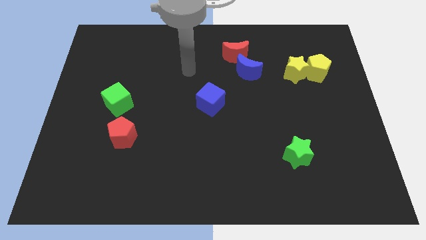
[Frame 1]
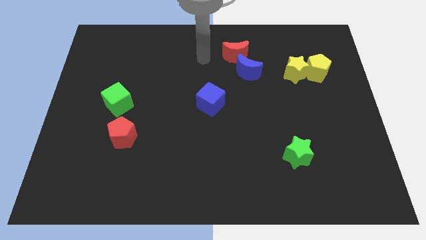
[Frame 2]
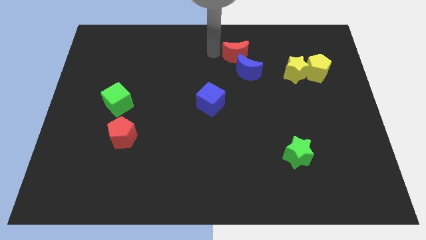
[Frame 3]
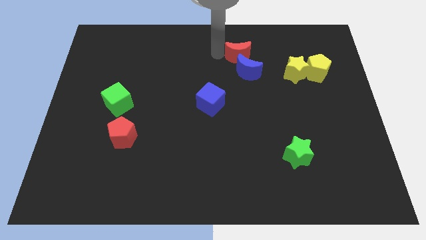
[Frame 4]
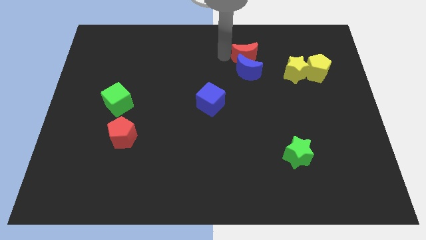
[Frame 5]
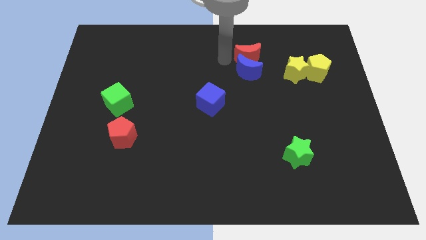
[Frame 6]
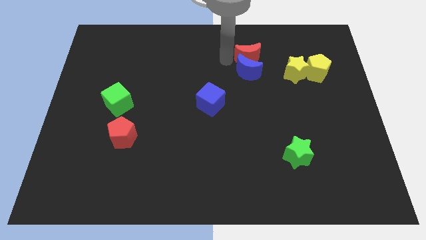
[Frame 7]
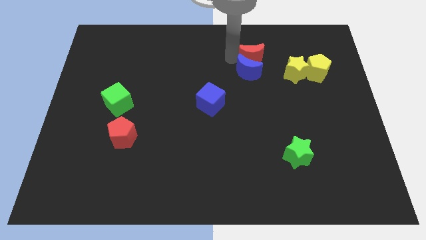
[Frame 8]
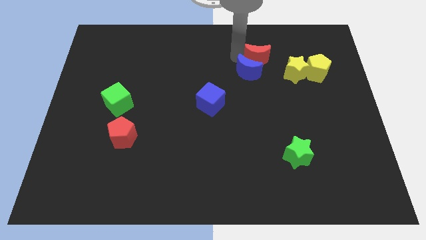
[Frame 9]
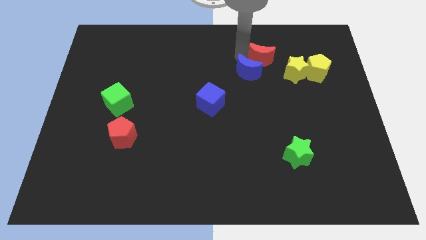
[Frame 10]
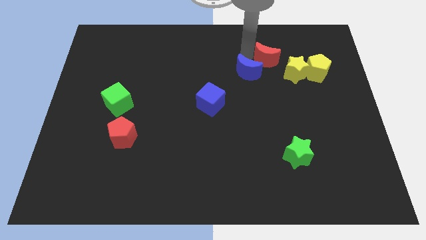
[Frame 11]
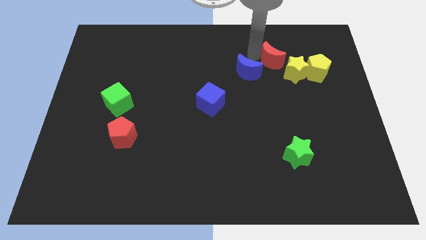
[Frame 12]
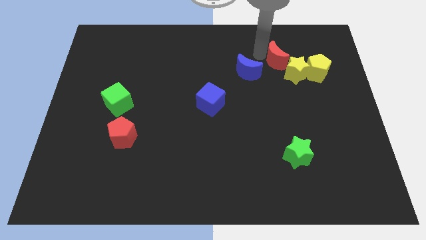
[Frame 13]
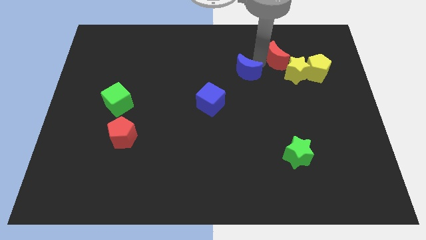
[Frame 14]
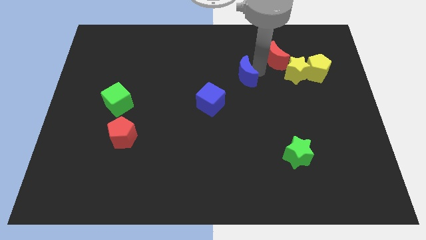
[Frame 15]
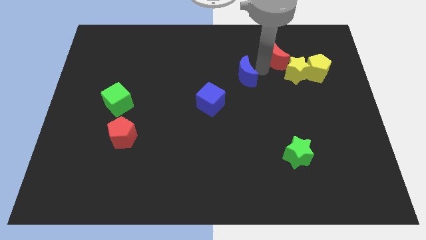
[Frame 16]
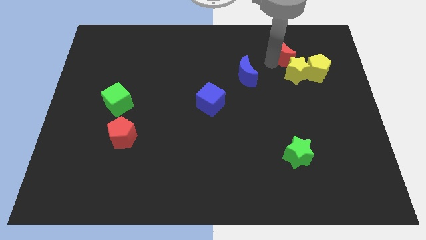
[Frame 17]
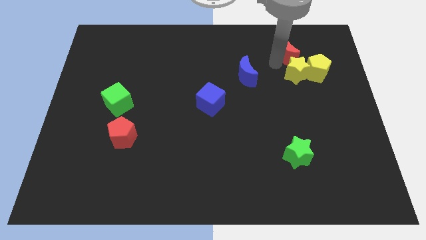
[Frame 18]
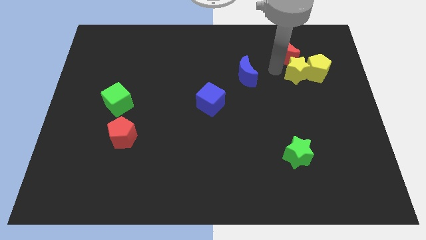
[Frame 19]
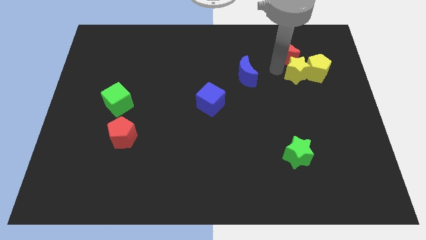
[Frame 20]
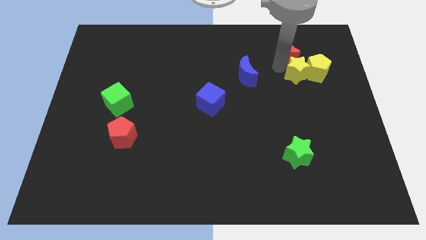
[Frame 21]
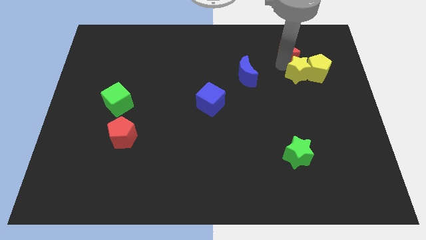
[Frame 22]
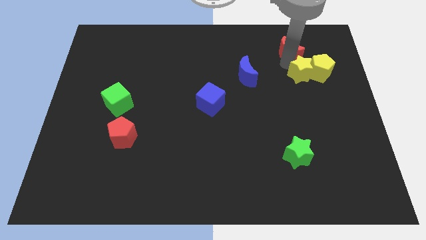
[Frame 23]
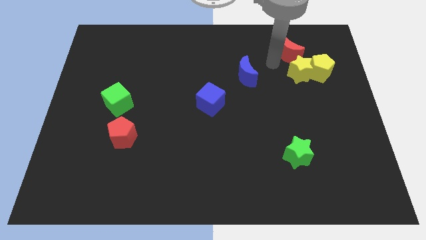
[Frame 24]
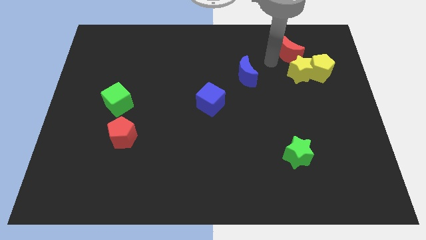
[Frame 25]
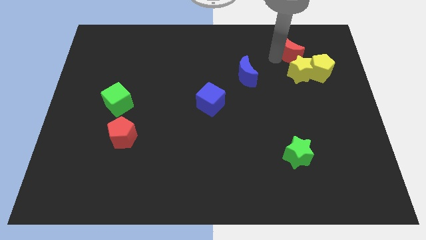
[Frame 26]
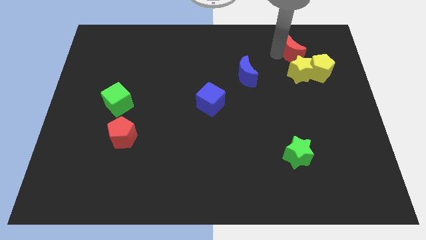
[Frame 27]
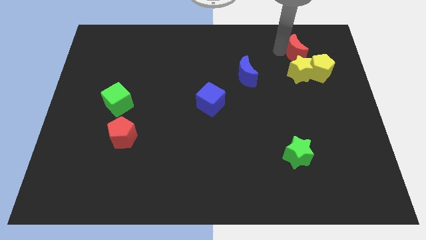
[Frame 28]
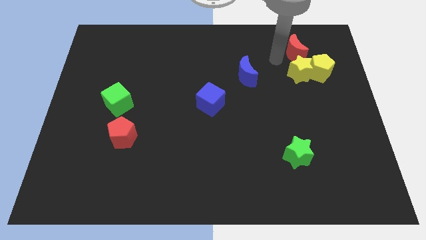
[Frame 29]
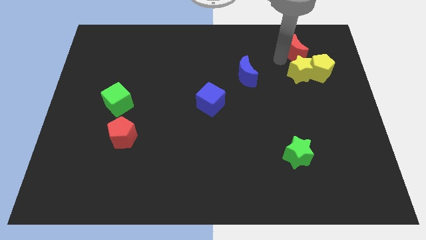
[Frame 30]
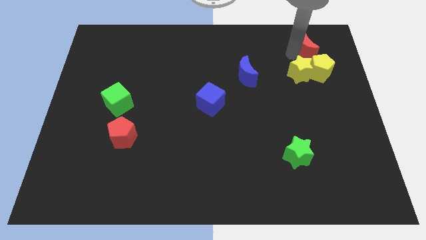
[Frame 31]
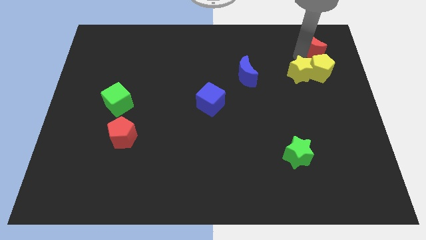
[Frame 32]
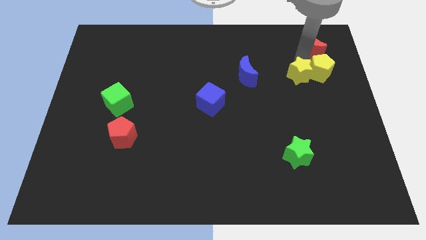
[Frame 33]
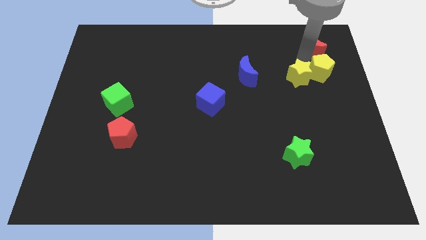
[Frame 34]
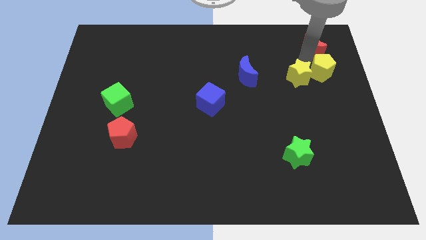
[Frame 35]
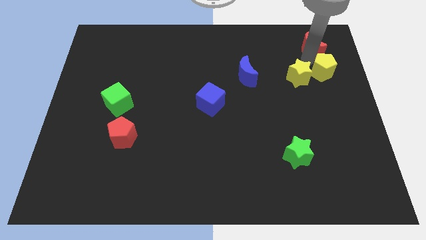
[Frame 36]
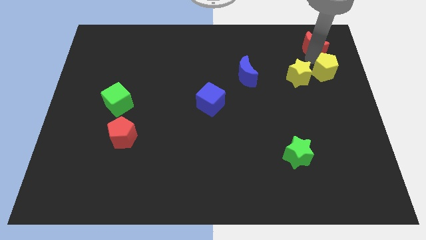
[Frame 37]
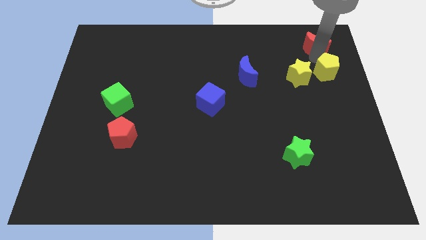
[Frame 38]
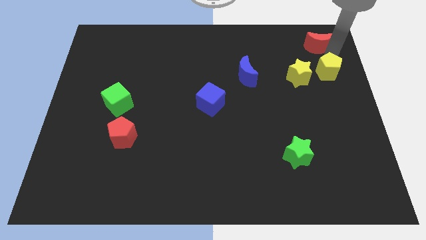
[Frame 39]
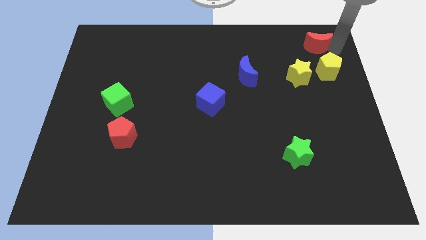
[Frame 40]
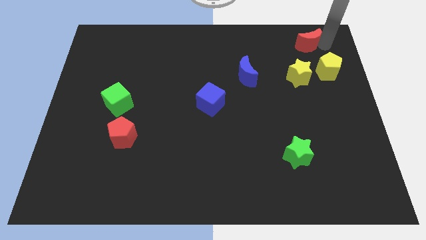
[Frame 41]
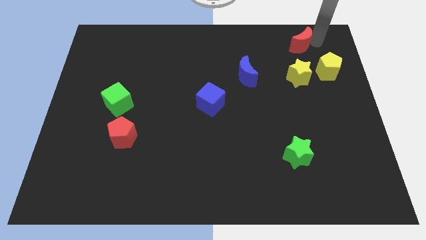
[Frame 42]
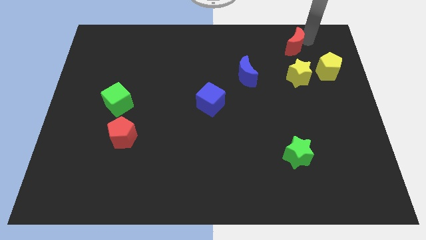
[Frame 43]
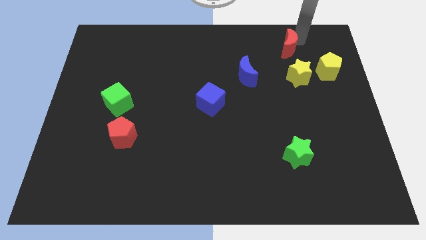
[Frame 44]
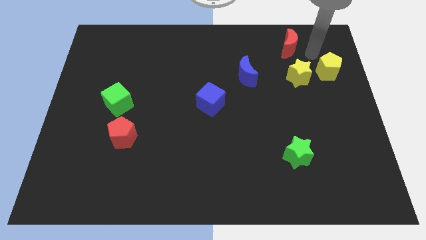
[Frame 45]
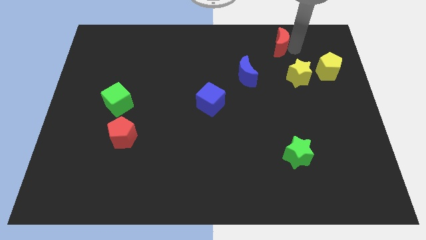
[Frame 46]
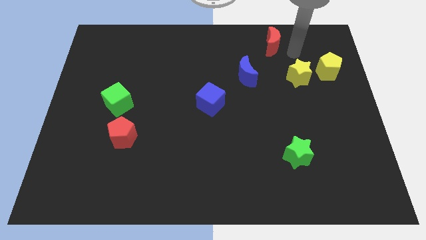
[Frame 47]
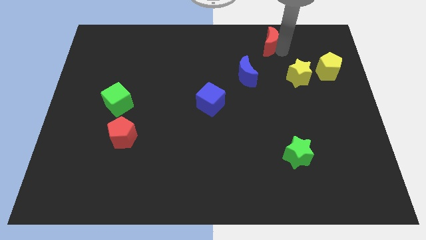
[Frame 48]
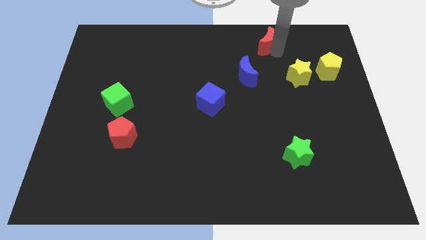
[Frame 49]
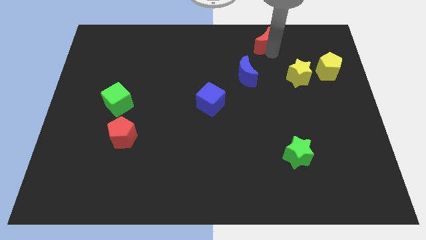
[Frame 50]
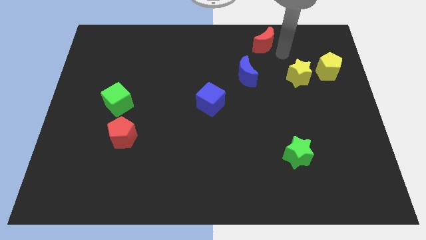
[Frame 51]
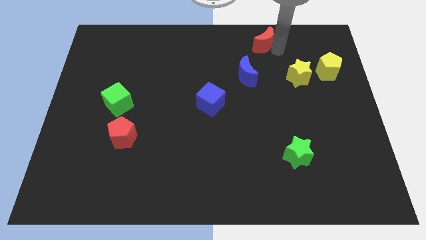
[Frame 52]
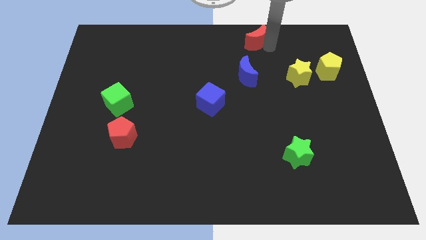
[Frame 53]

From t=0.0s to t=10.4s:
slide the red moon to the towards your base

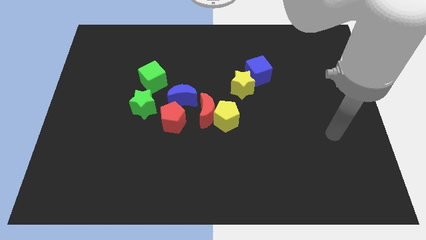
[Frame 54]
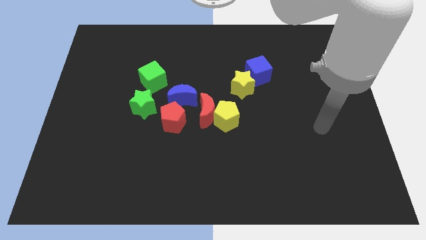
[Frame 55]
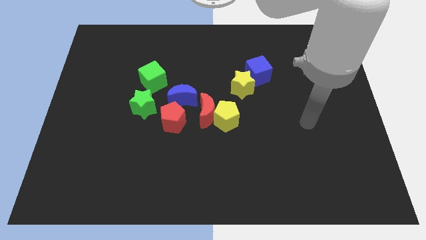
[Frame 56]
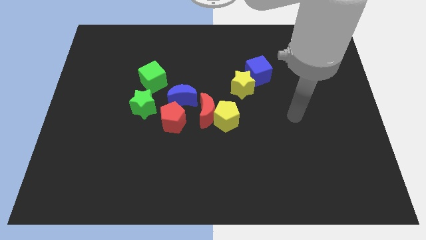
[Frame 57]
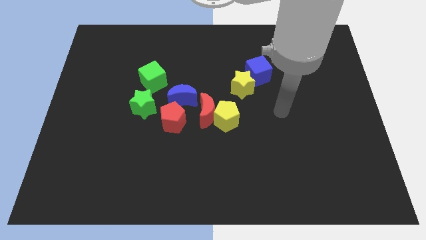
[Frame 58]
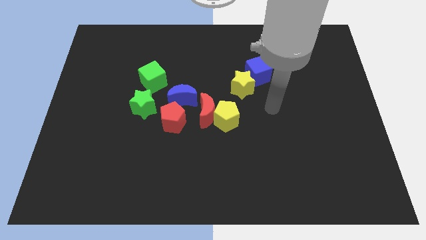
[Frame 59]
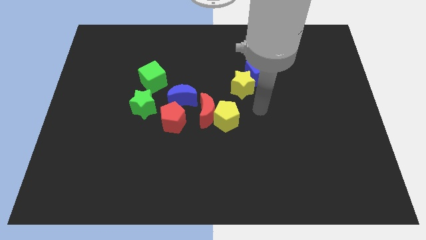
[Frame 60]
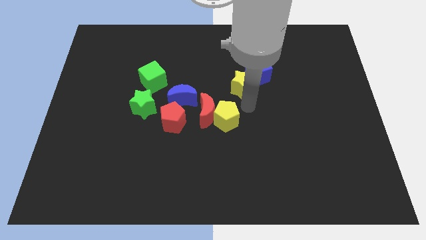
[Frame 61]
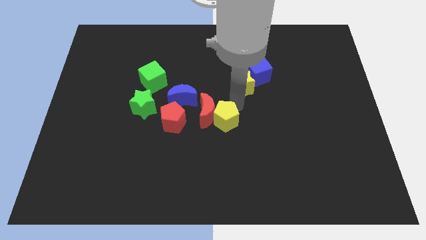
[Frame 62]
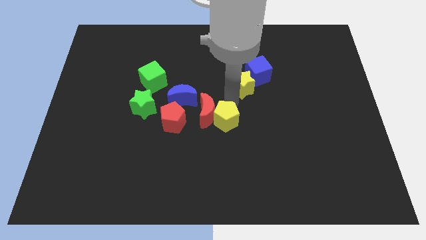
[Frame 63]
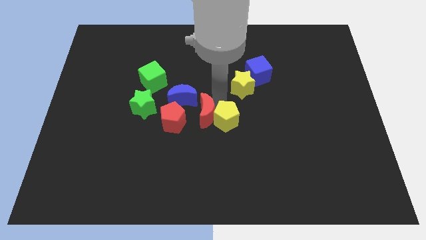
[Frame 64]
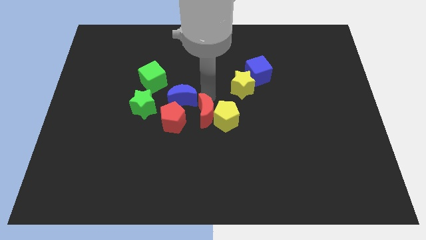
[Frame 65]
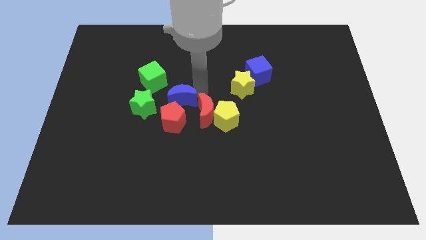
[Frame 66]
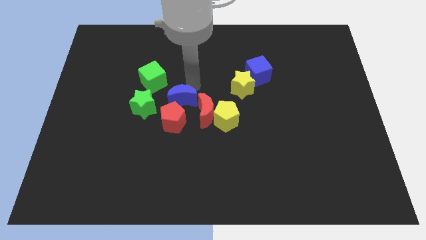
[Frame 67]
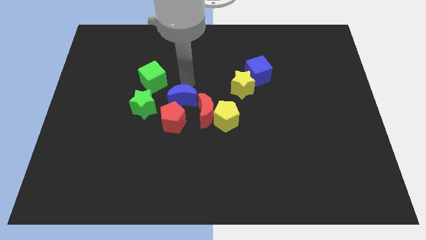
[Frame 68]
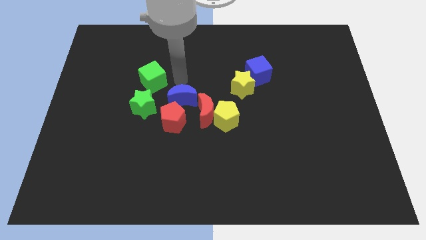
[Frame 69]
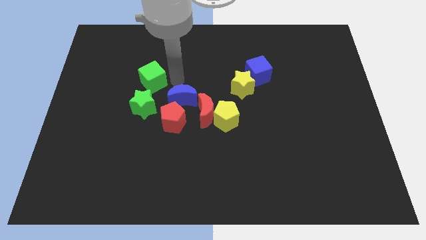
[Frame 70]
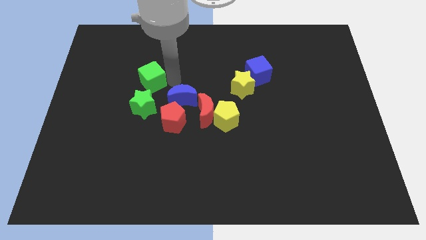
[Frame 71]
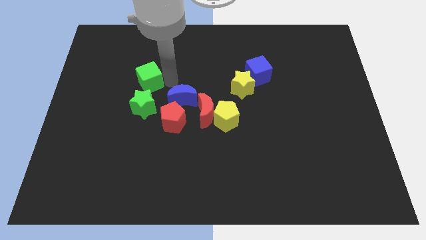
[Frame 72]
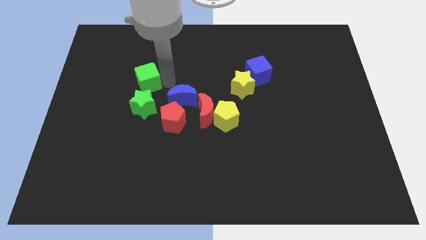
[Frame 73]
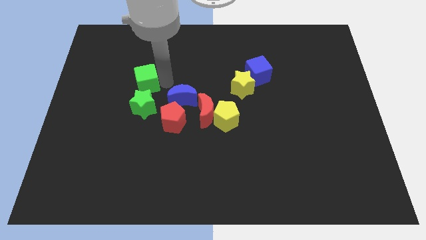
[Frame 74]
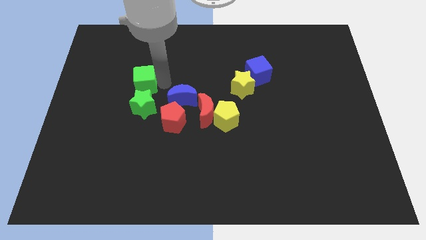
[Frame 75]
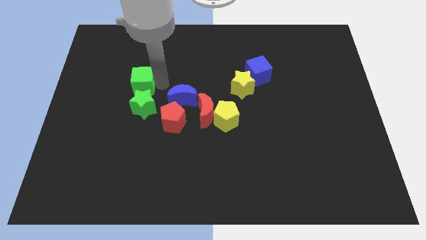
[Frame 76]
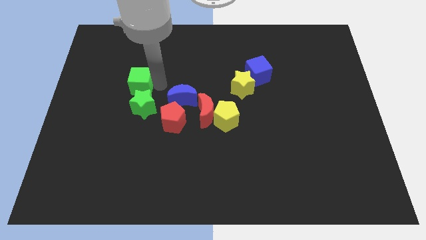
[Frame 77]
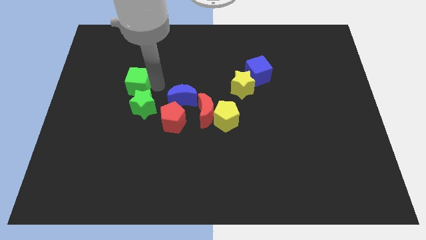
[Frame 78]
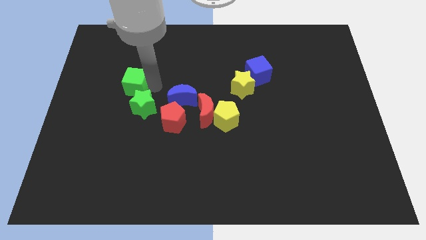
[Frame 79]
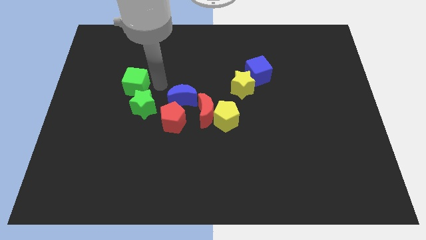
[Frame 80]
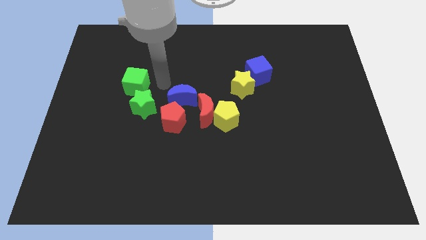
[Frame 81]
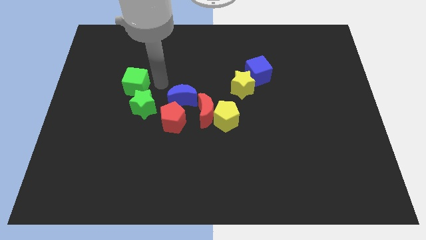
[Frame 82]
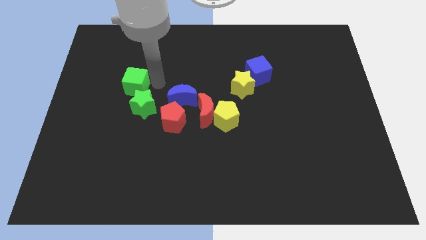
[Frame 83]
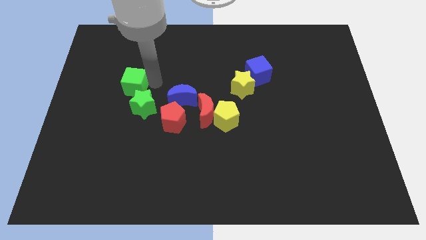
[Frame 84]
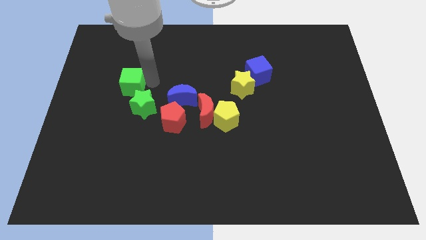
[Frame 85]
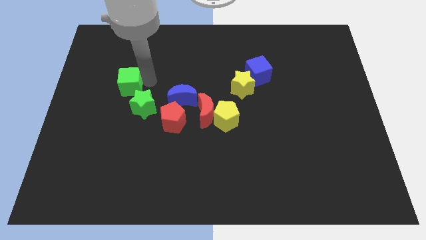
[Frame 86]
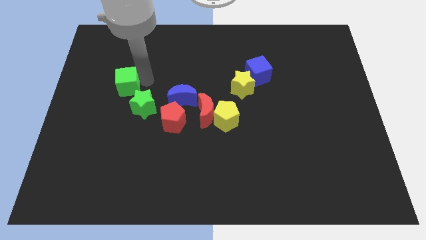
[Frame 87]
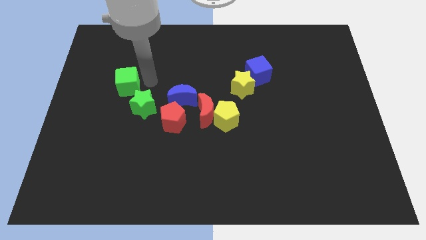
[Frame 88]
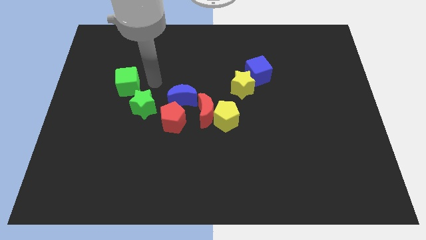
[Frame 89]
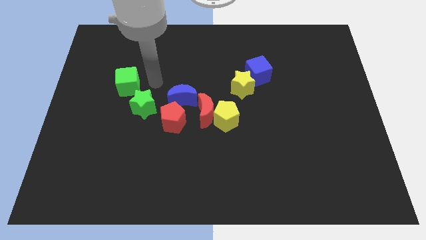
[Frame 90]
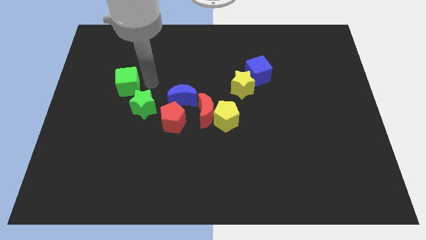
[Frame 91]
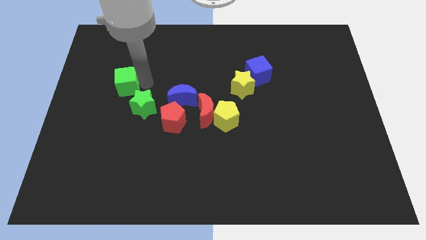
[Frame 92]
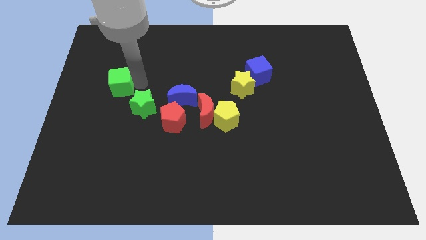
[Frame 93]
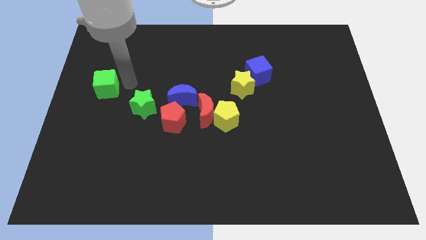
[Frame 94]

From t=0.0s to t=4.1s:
put the green cube to the left side
